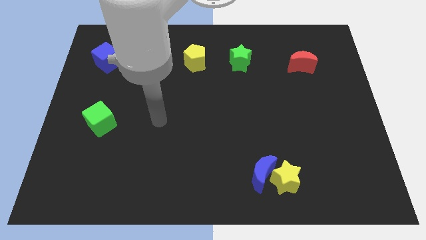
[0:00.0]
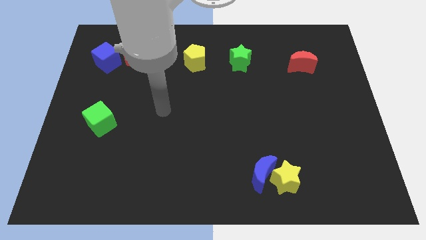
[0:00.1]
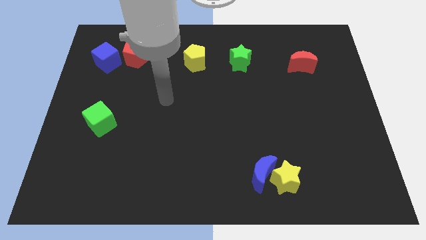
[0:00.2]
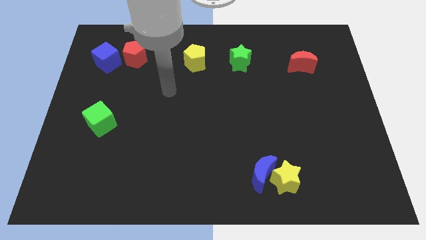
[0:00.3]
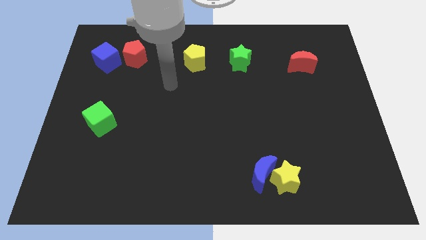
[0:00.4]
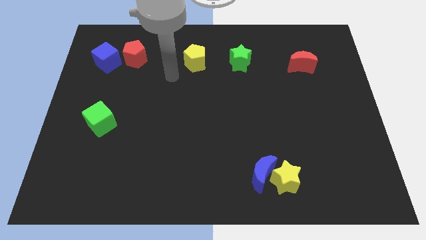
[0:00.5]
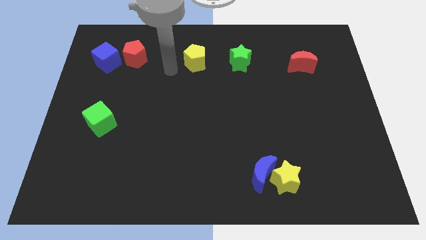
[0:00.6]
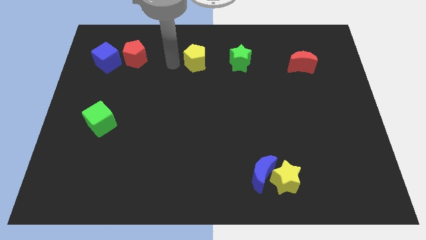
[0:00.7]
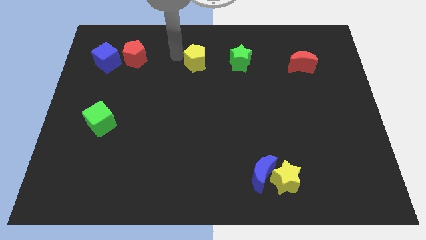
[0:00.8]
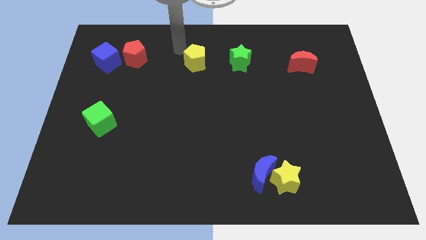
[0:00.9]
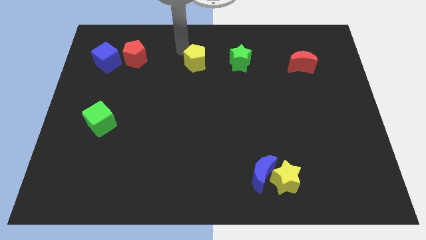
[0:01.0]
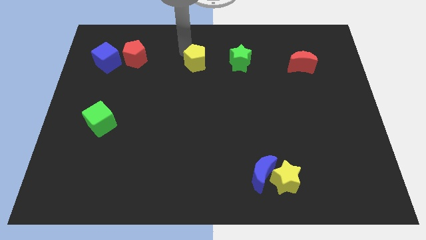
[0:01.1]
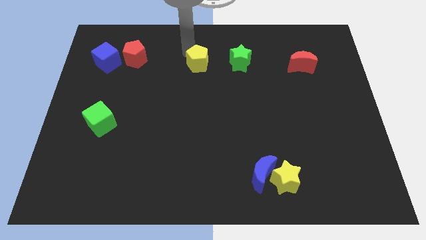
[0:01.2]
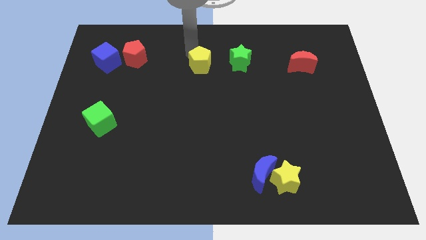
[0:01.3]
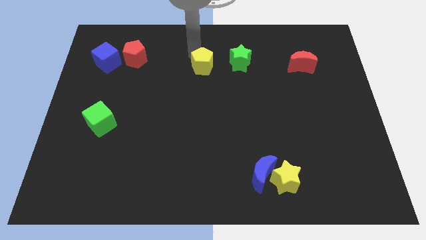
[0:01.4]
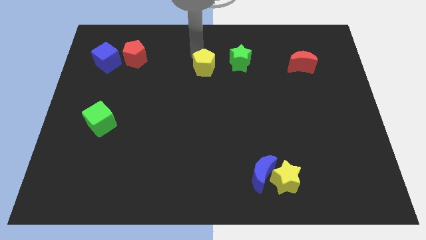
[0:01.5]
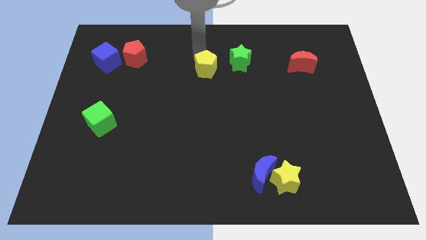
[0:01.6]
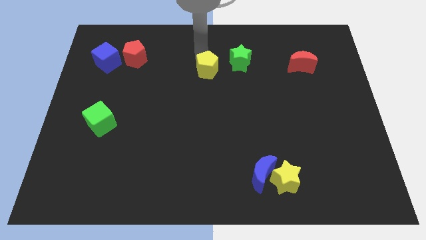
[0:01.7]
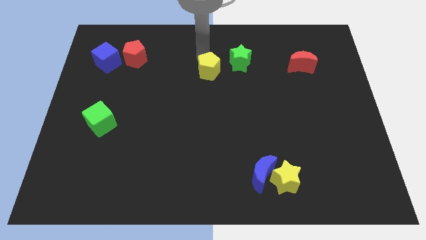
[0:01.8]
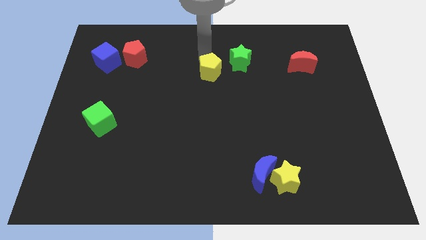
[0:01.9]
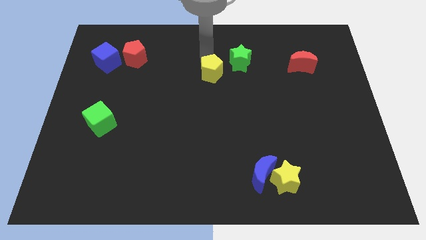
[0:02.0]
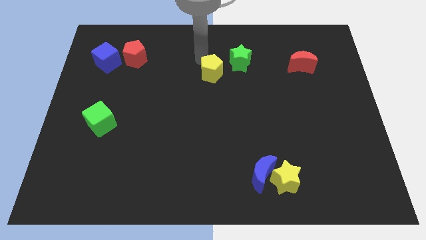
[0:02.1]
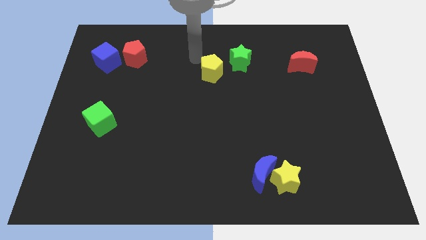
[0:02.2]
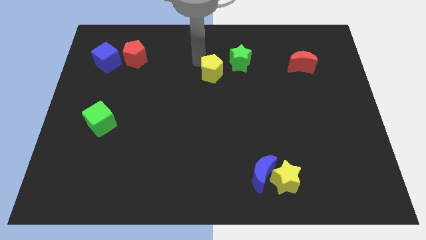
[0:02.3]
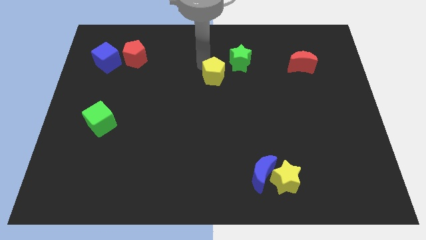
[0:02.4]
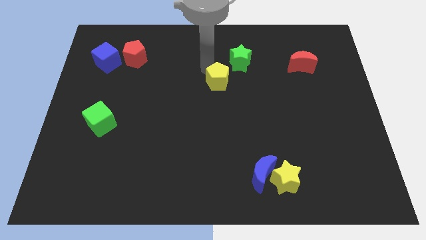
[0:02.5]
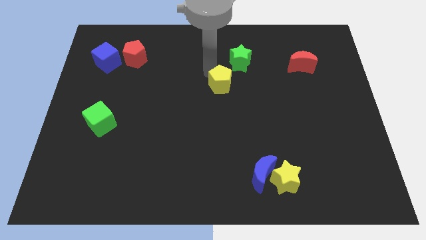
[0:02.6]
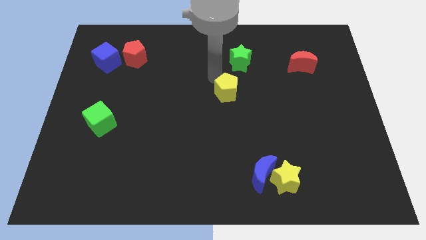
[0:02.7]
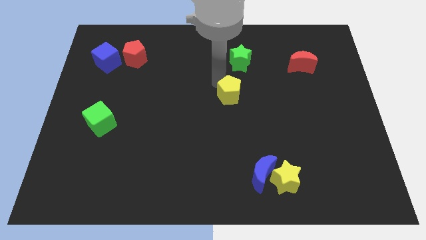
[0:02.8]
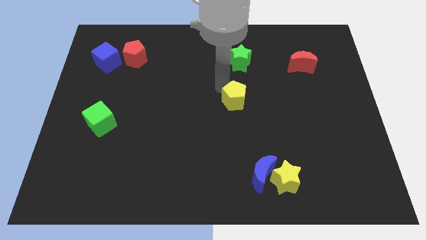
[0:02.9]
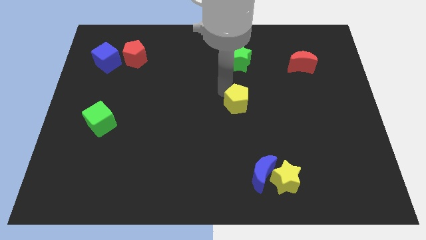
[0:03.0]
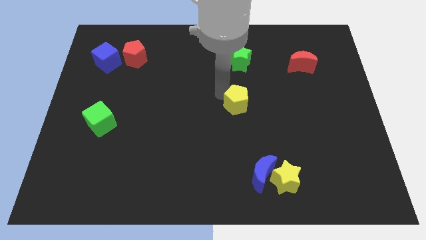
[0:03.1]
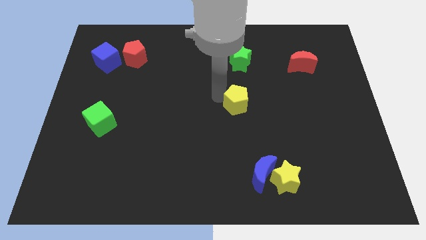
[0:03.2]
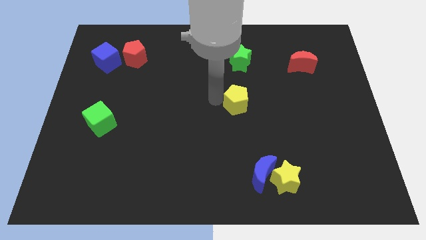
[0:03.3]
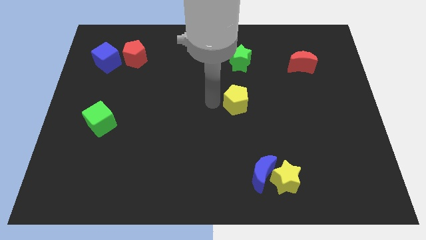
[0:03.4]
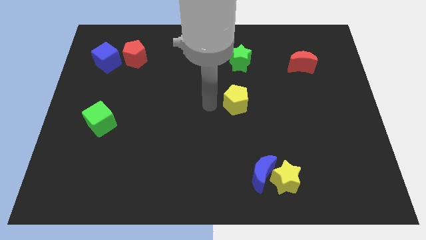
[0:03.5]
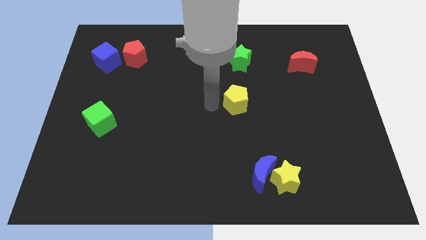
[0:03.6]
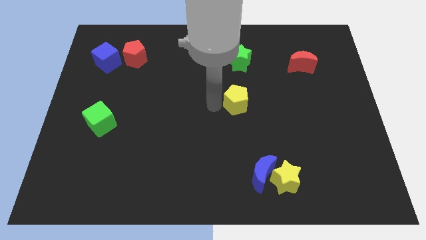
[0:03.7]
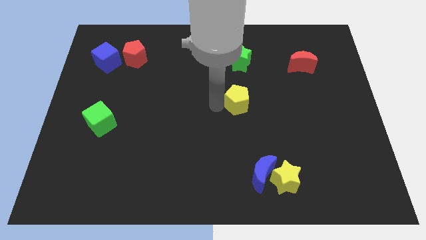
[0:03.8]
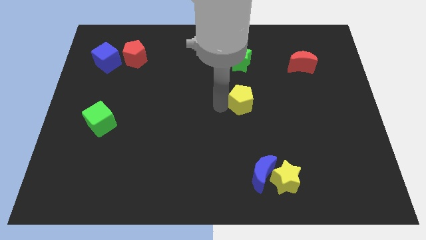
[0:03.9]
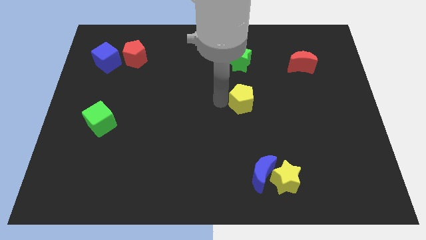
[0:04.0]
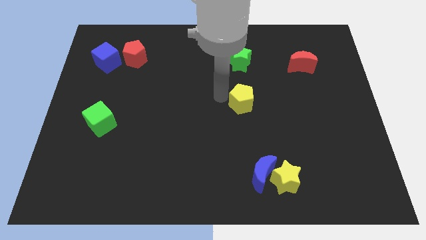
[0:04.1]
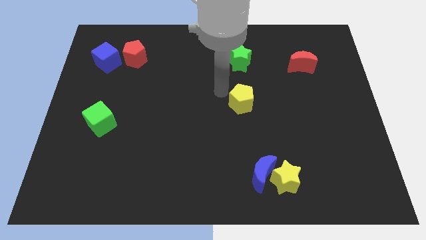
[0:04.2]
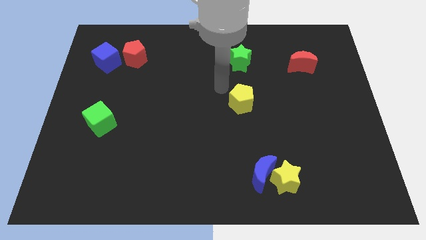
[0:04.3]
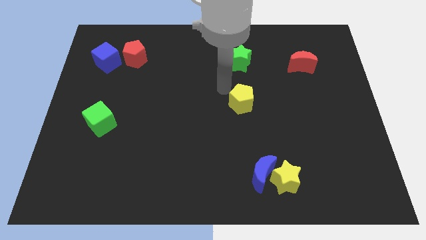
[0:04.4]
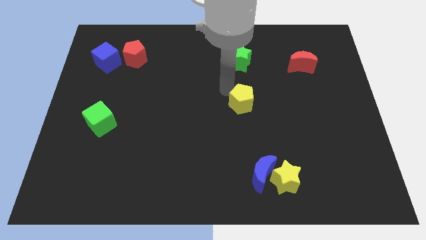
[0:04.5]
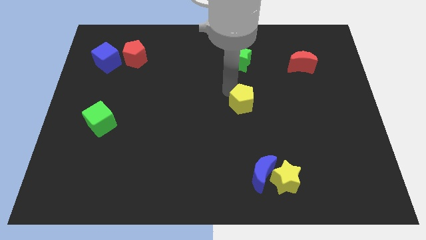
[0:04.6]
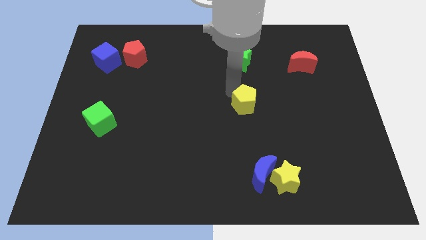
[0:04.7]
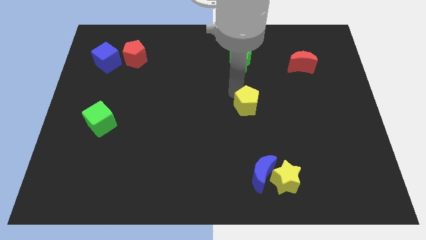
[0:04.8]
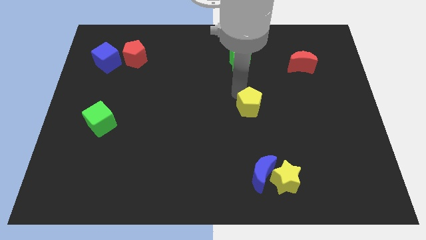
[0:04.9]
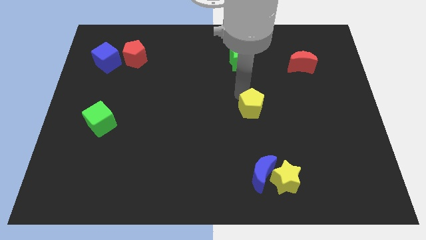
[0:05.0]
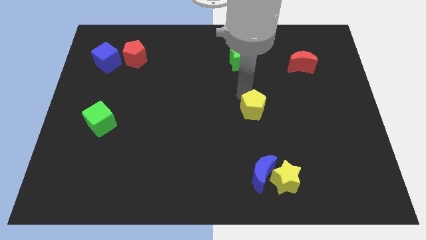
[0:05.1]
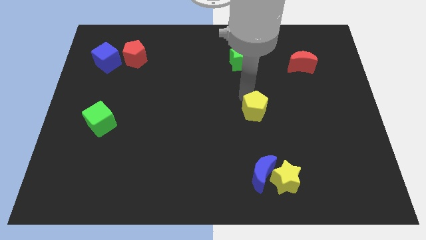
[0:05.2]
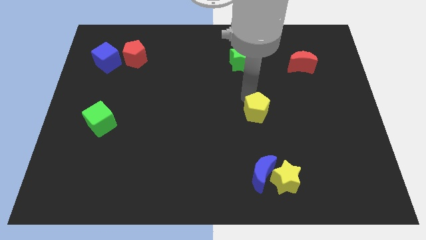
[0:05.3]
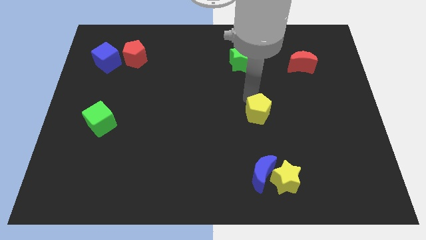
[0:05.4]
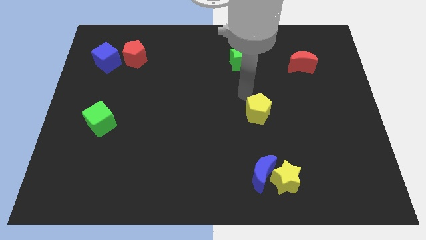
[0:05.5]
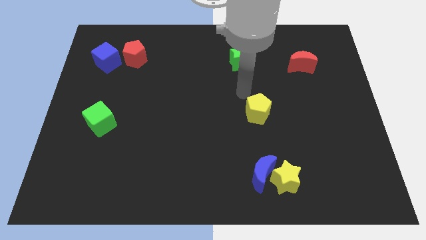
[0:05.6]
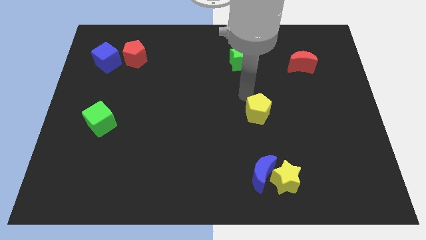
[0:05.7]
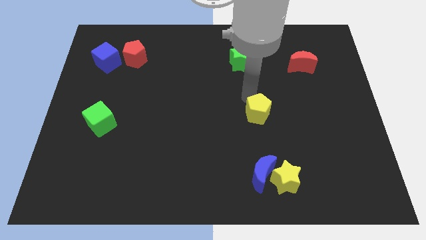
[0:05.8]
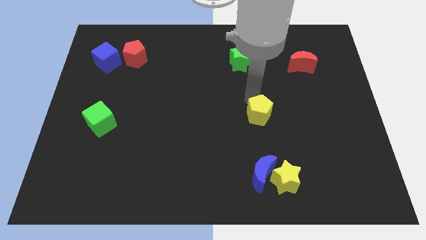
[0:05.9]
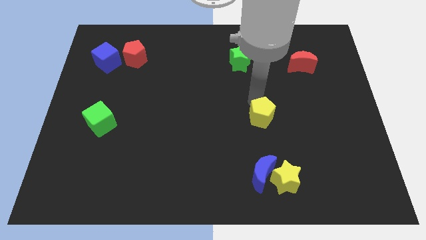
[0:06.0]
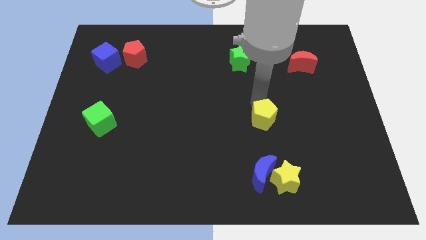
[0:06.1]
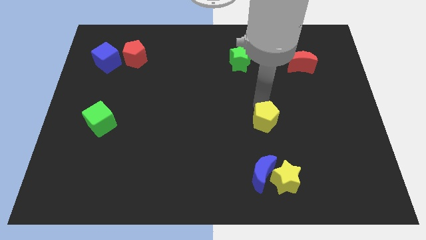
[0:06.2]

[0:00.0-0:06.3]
put the yellow pentagon to the top of the yellow star
